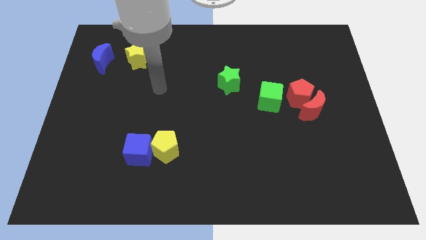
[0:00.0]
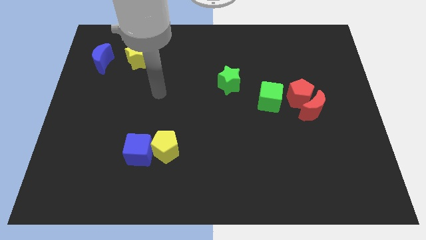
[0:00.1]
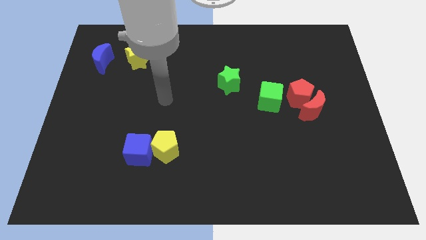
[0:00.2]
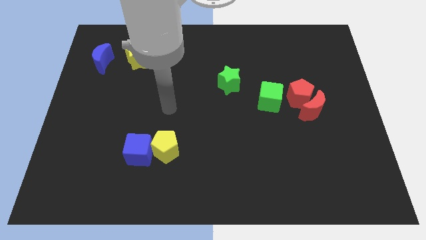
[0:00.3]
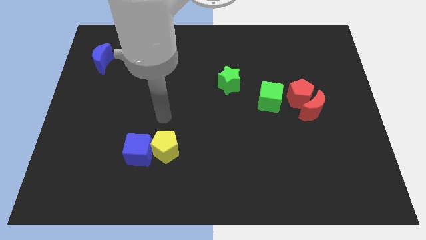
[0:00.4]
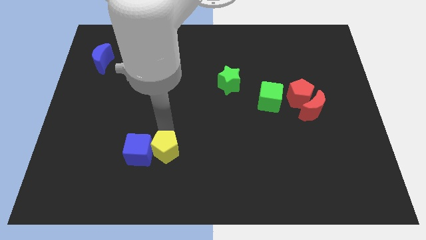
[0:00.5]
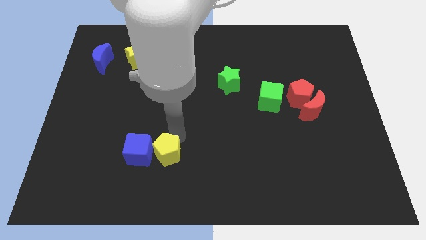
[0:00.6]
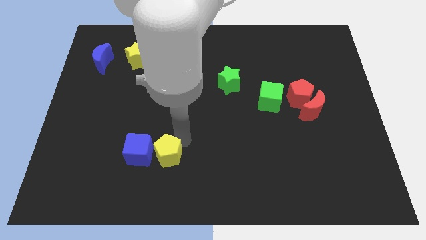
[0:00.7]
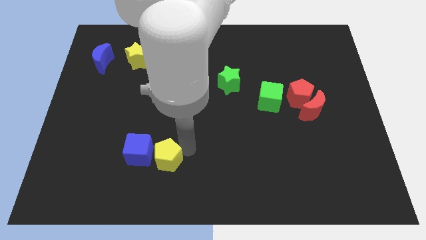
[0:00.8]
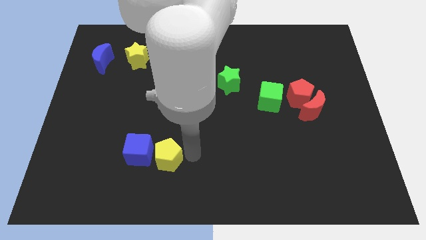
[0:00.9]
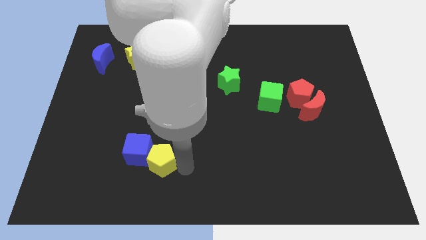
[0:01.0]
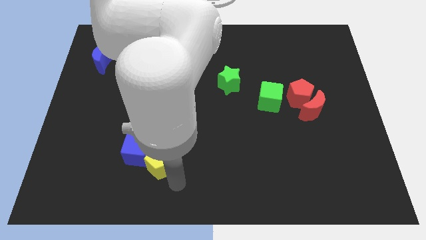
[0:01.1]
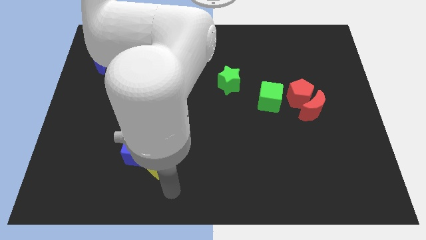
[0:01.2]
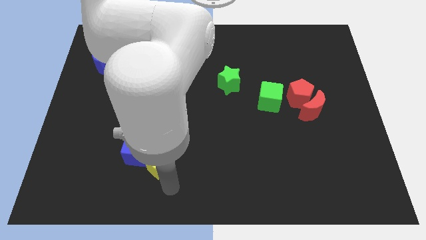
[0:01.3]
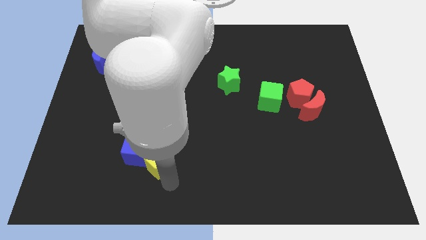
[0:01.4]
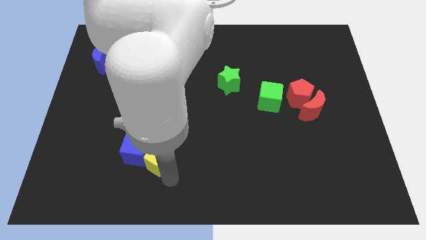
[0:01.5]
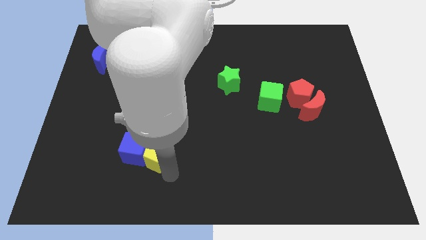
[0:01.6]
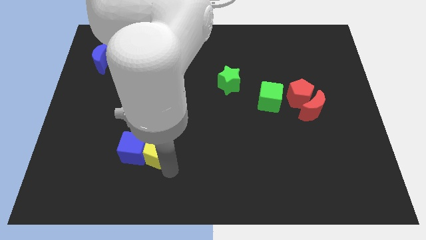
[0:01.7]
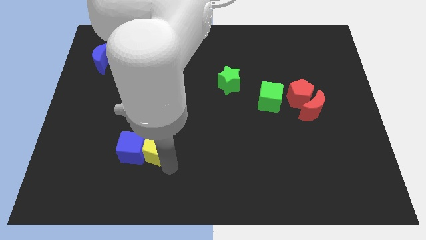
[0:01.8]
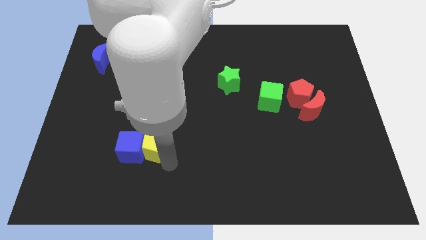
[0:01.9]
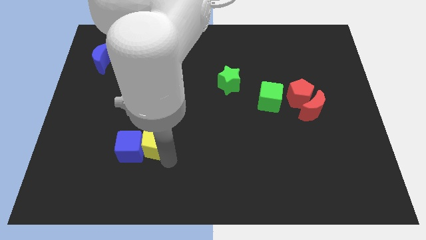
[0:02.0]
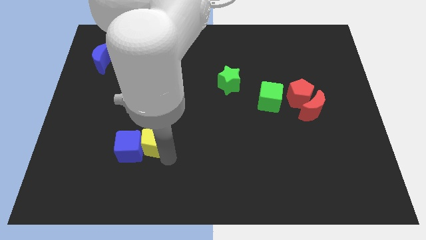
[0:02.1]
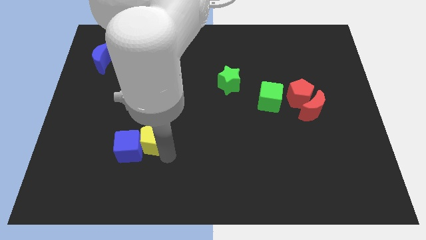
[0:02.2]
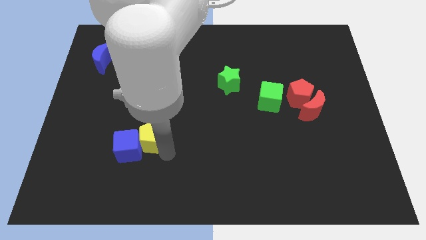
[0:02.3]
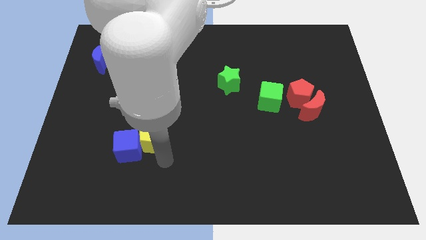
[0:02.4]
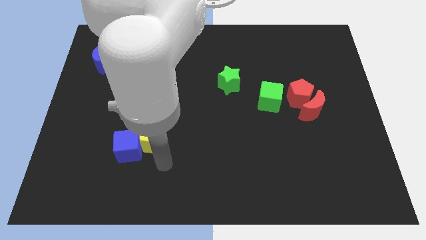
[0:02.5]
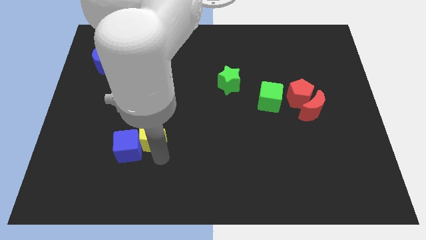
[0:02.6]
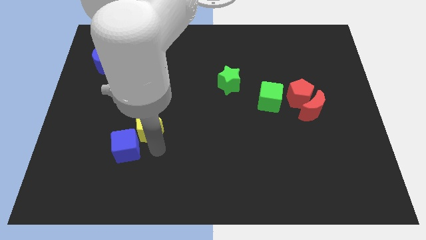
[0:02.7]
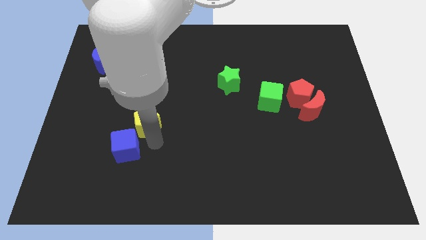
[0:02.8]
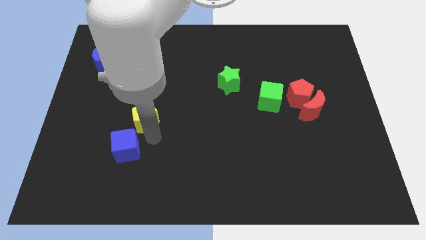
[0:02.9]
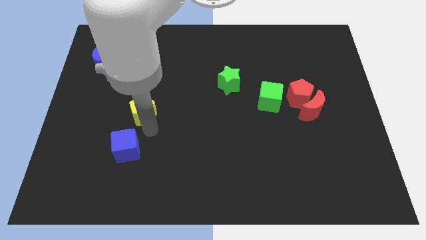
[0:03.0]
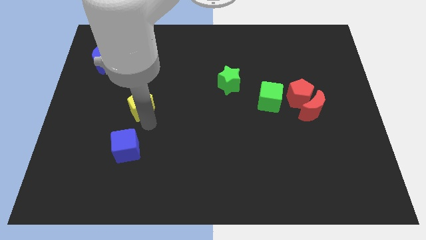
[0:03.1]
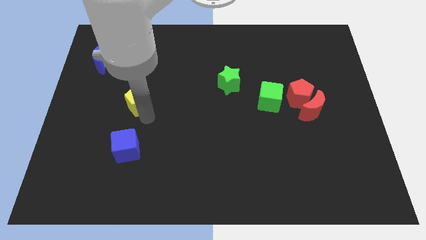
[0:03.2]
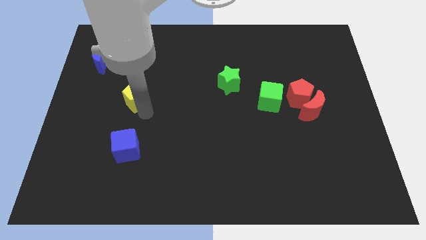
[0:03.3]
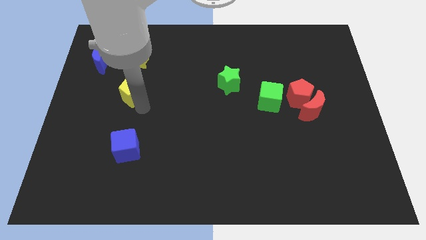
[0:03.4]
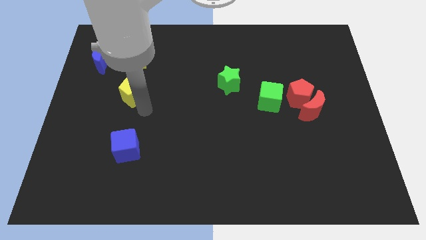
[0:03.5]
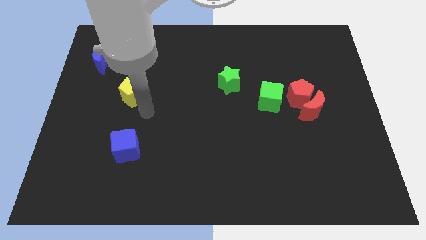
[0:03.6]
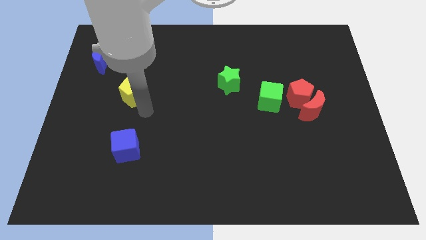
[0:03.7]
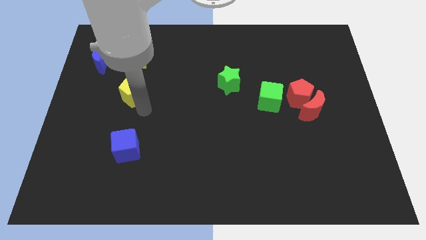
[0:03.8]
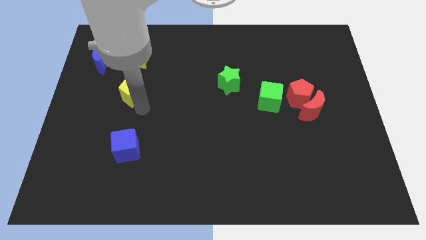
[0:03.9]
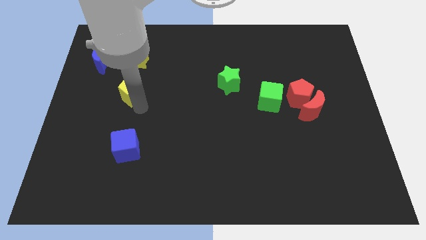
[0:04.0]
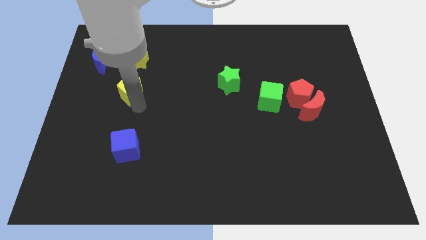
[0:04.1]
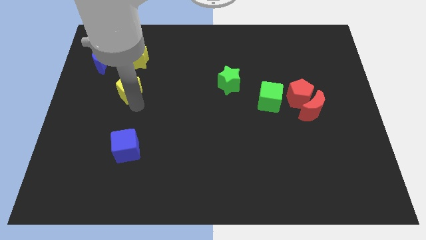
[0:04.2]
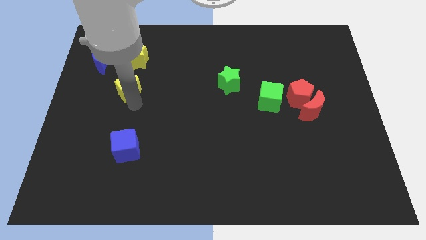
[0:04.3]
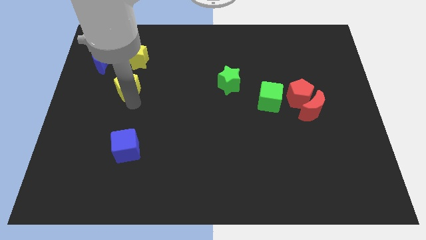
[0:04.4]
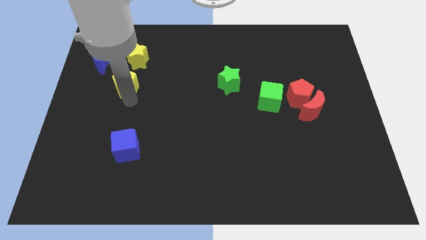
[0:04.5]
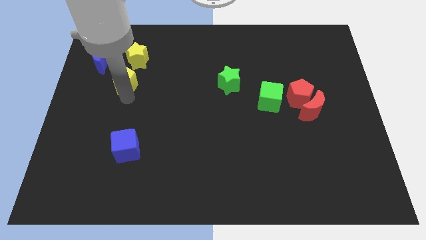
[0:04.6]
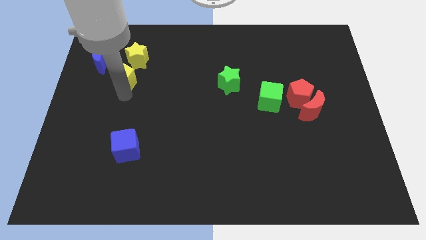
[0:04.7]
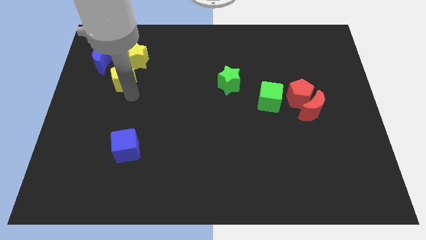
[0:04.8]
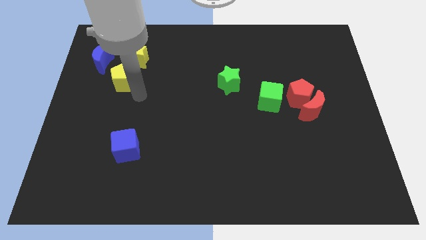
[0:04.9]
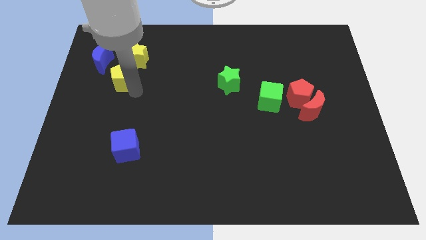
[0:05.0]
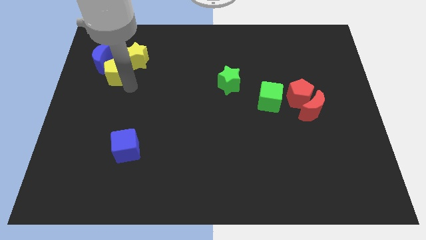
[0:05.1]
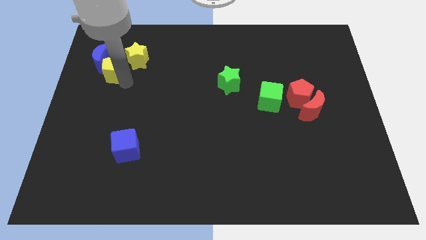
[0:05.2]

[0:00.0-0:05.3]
put the yellow pentagon next to the blue moon

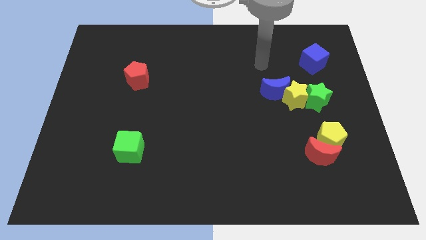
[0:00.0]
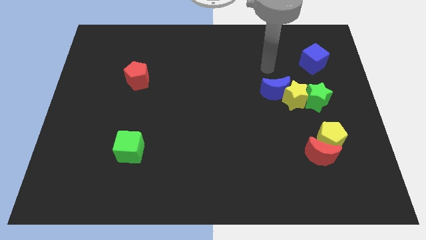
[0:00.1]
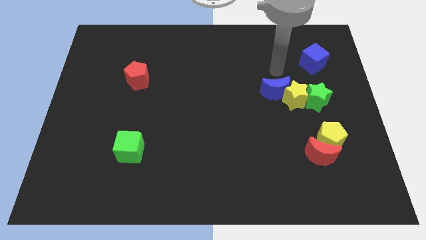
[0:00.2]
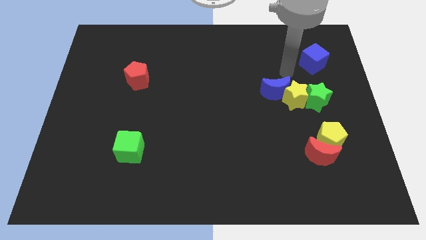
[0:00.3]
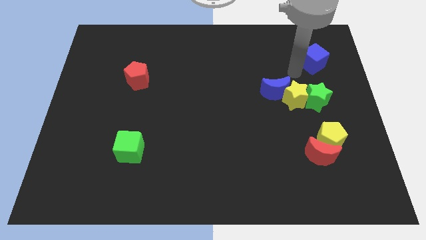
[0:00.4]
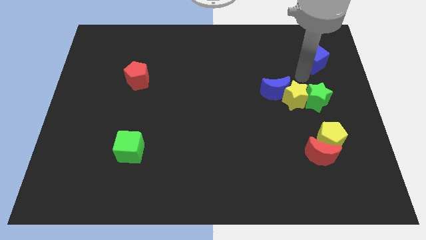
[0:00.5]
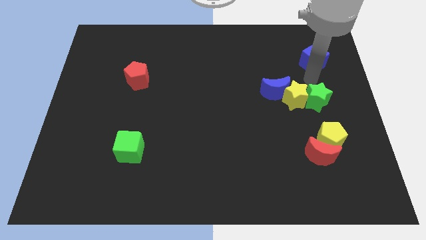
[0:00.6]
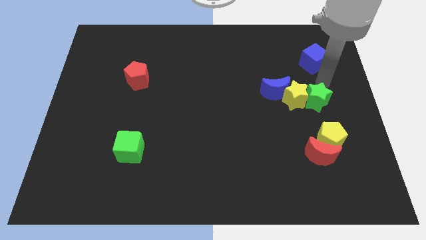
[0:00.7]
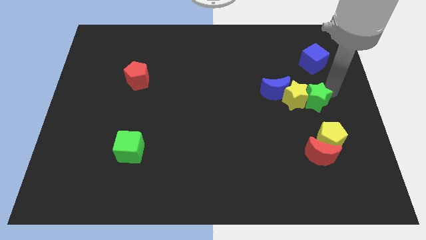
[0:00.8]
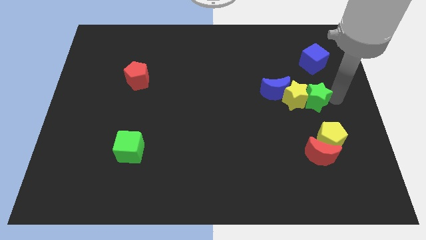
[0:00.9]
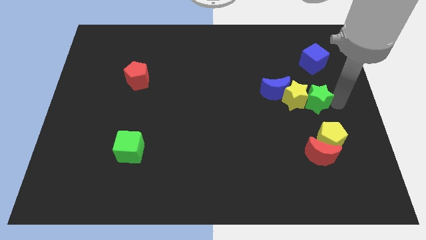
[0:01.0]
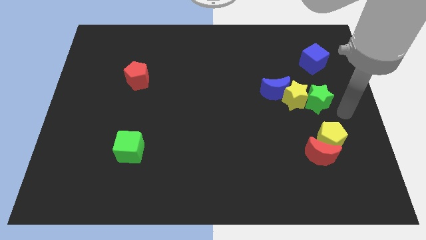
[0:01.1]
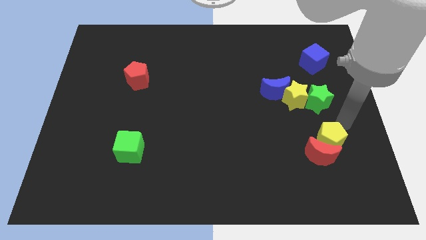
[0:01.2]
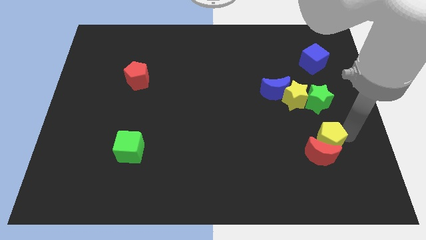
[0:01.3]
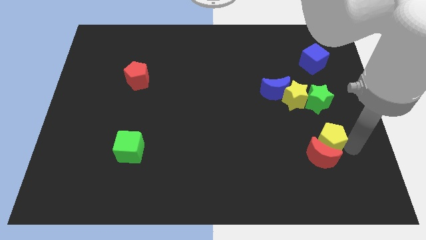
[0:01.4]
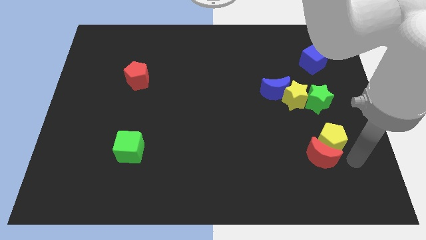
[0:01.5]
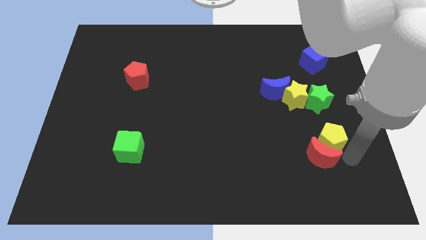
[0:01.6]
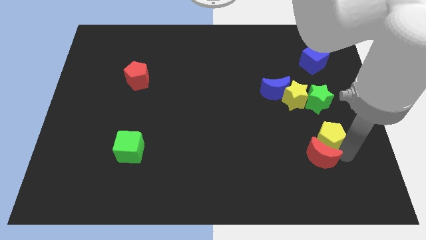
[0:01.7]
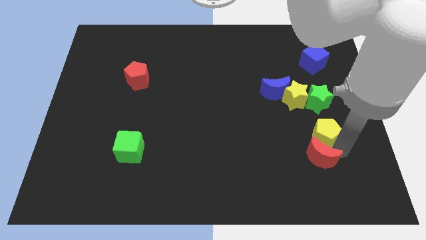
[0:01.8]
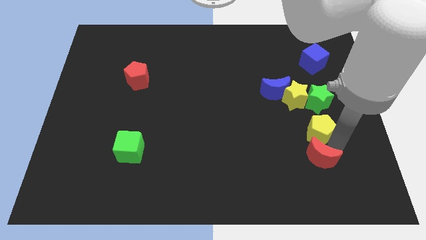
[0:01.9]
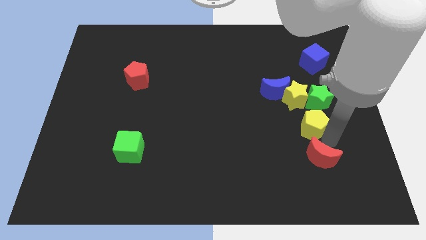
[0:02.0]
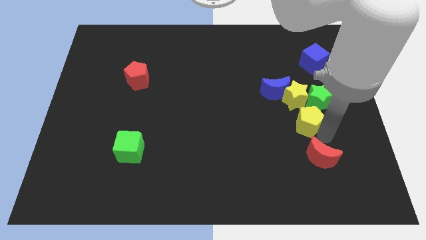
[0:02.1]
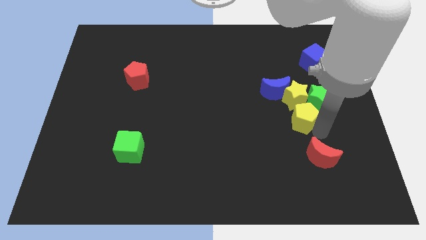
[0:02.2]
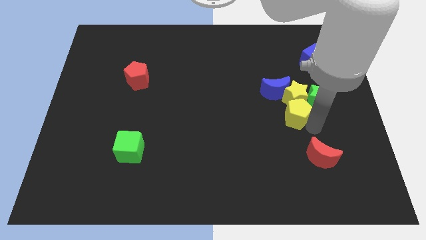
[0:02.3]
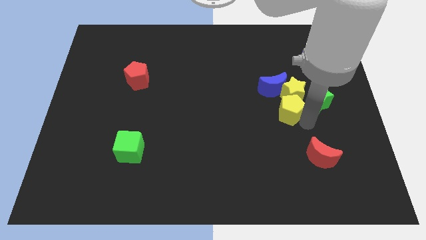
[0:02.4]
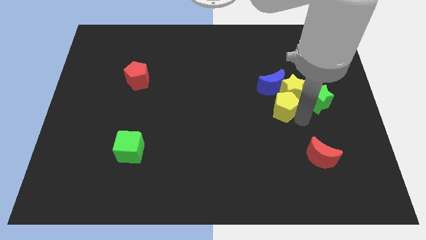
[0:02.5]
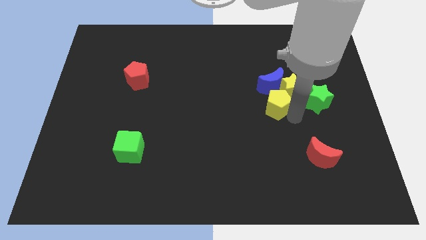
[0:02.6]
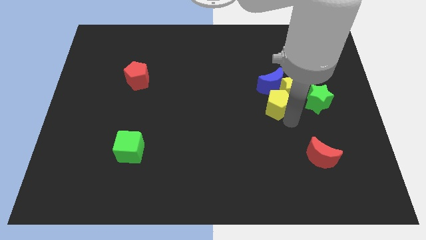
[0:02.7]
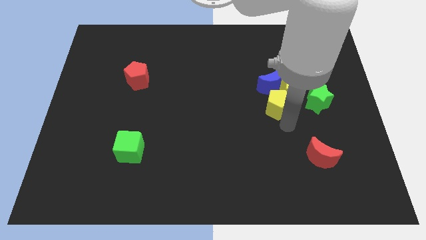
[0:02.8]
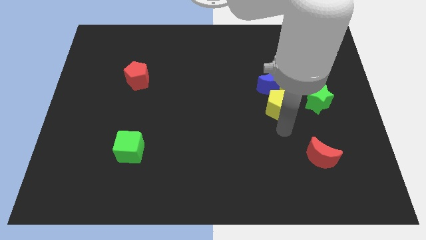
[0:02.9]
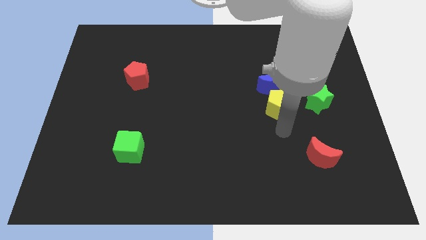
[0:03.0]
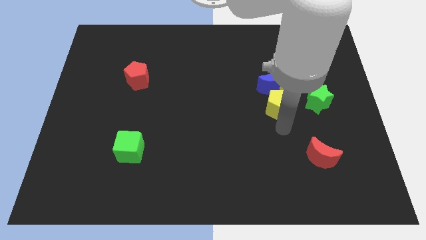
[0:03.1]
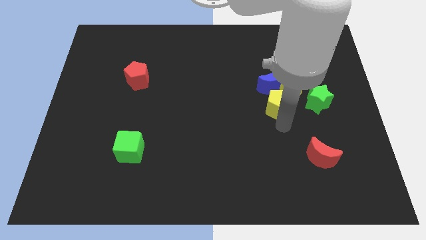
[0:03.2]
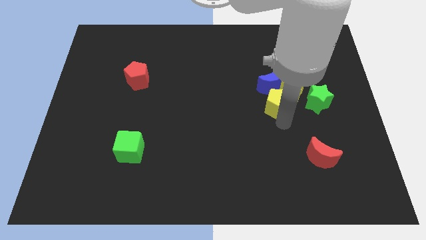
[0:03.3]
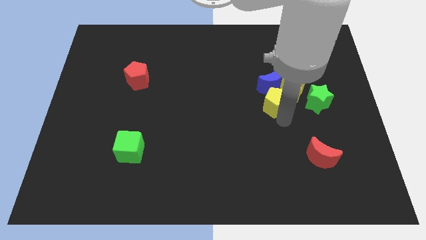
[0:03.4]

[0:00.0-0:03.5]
put the yellow pentagon towards the blue moon
